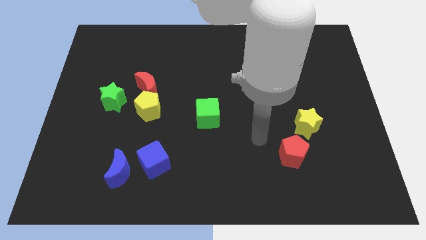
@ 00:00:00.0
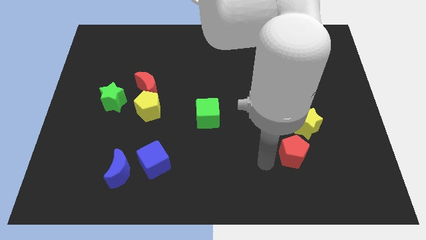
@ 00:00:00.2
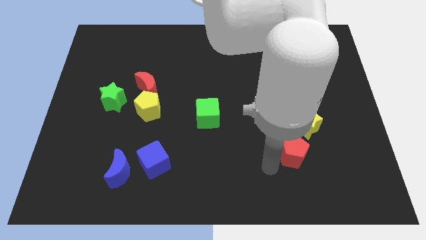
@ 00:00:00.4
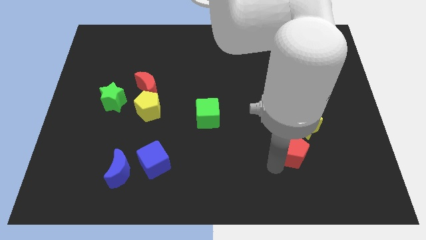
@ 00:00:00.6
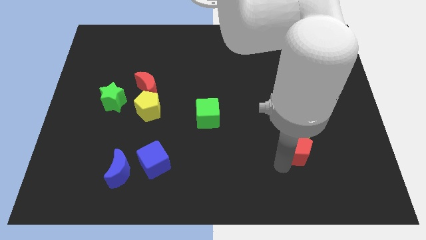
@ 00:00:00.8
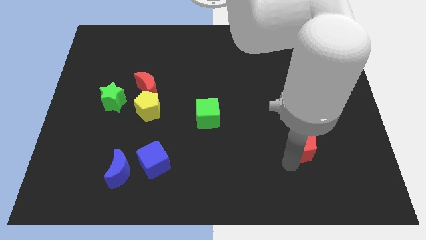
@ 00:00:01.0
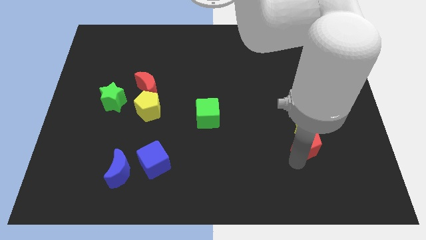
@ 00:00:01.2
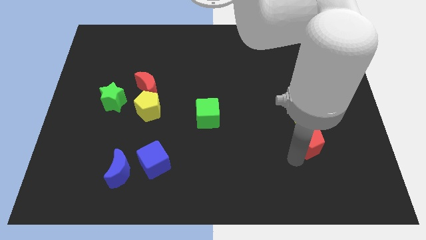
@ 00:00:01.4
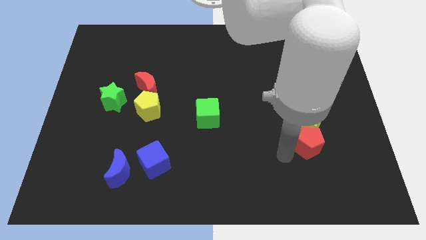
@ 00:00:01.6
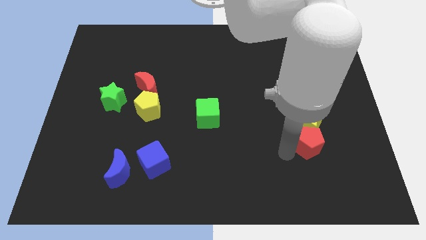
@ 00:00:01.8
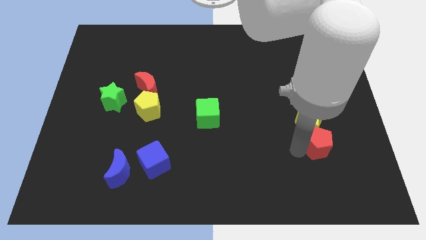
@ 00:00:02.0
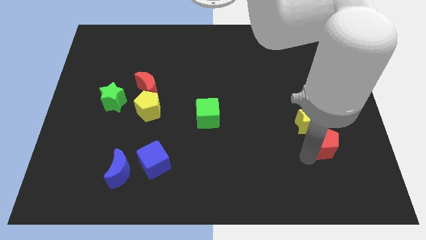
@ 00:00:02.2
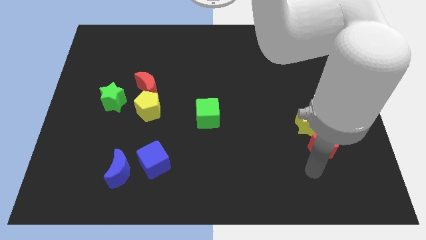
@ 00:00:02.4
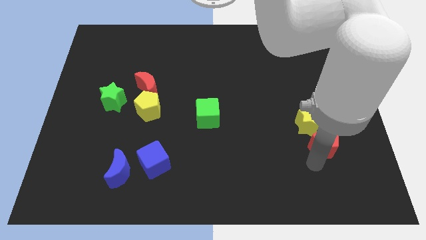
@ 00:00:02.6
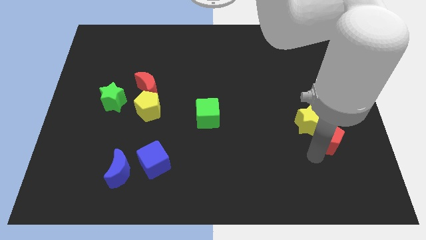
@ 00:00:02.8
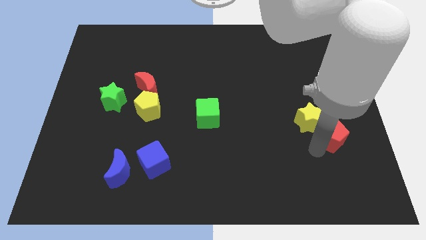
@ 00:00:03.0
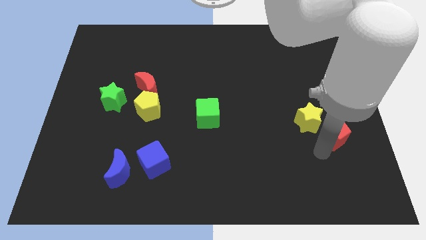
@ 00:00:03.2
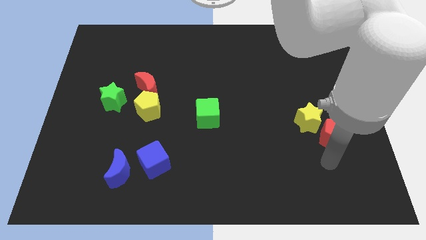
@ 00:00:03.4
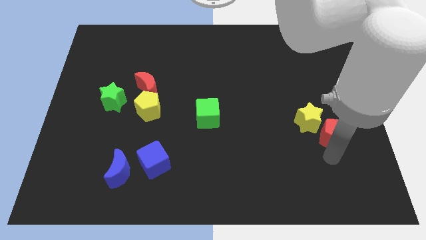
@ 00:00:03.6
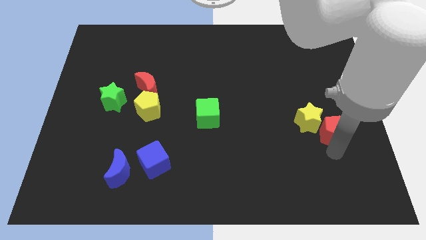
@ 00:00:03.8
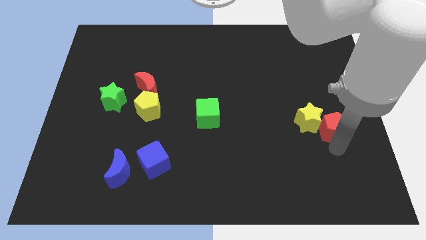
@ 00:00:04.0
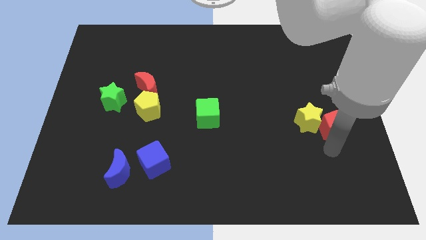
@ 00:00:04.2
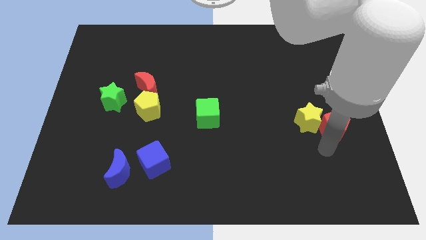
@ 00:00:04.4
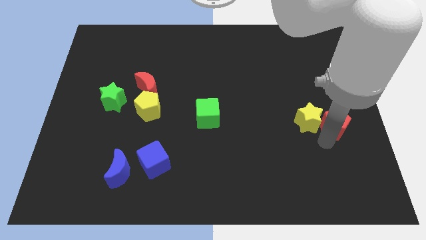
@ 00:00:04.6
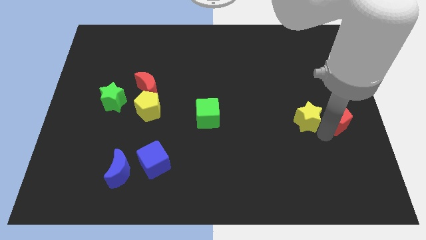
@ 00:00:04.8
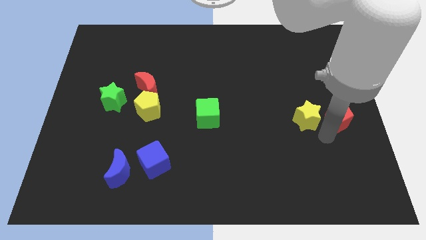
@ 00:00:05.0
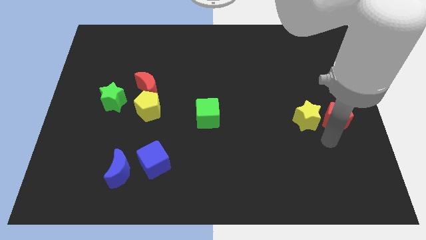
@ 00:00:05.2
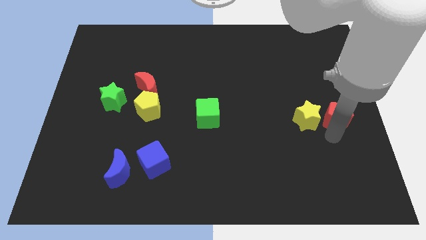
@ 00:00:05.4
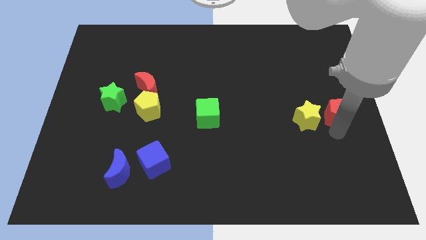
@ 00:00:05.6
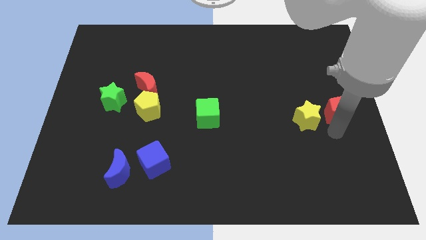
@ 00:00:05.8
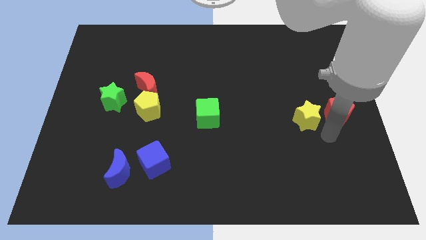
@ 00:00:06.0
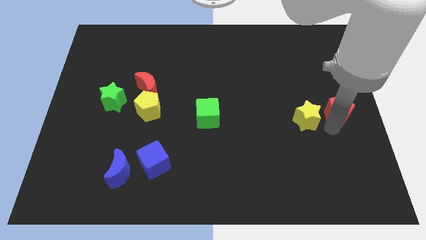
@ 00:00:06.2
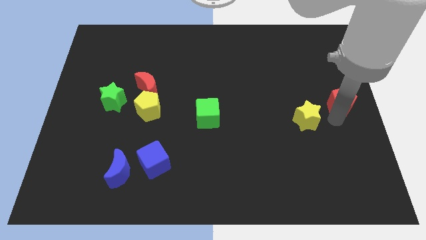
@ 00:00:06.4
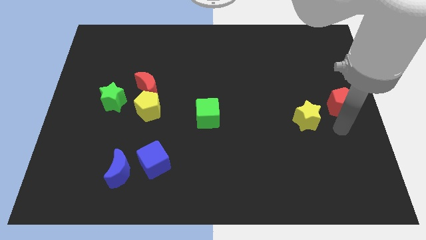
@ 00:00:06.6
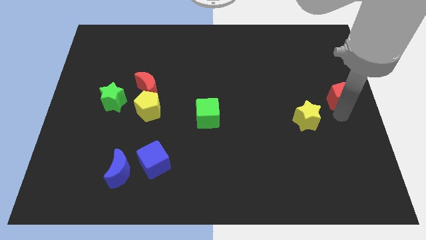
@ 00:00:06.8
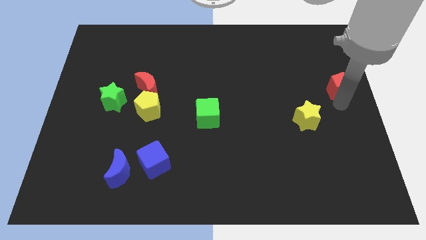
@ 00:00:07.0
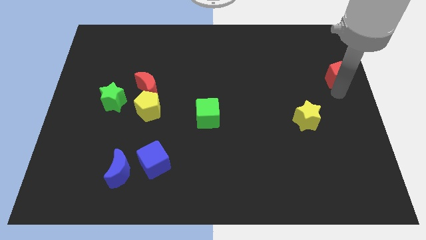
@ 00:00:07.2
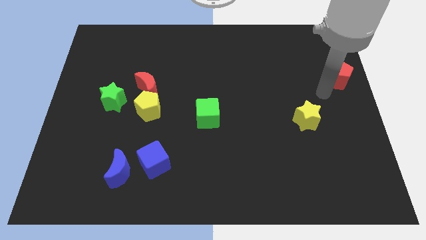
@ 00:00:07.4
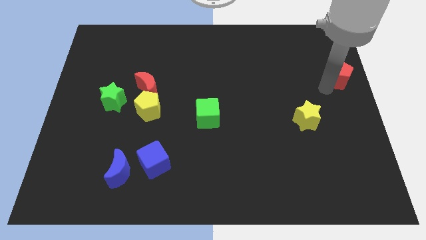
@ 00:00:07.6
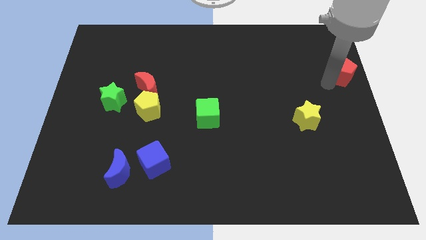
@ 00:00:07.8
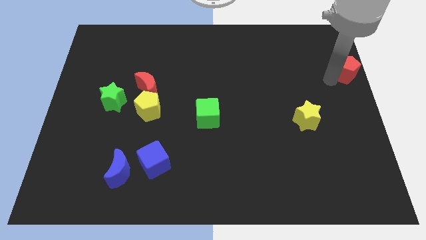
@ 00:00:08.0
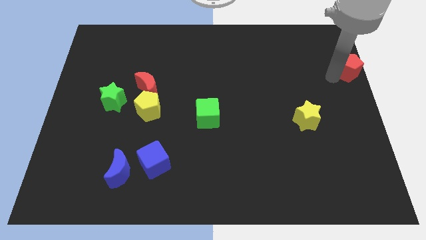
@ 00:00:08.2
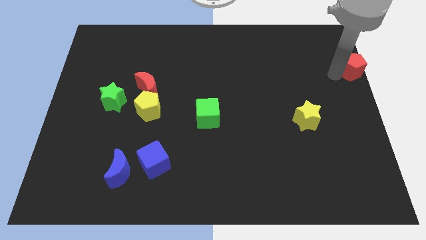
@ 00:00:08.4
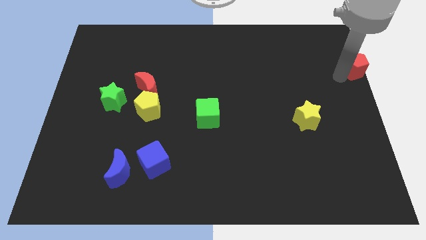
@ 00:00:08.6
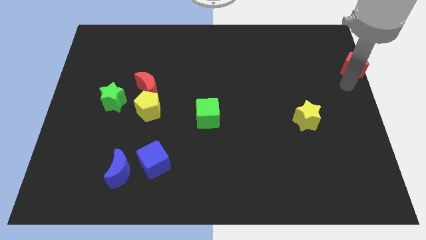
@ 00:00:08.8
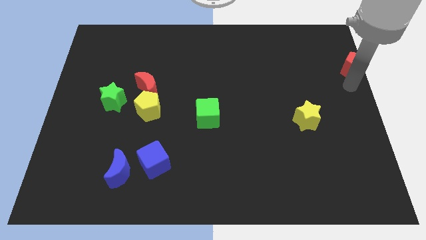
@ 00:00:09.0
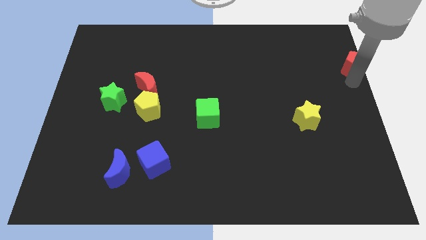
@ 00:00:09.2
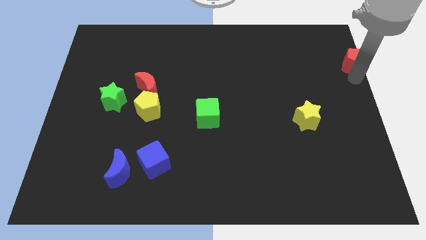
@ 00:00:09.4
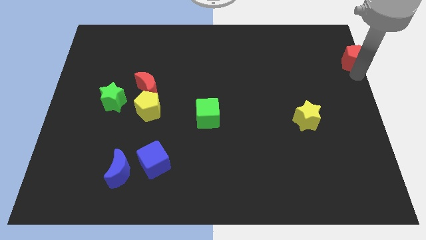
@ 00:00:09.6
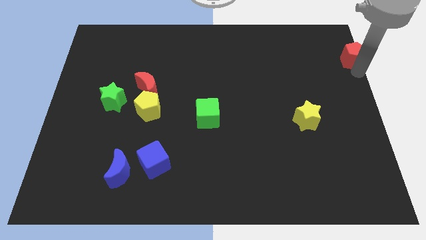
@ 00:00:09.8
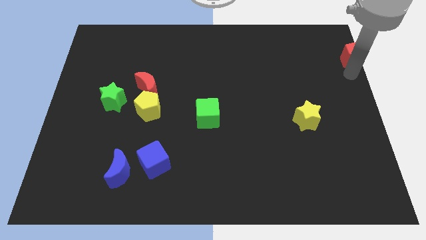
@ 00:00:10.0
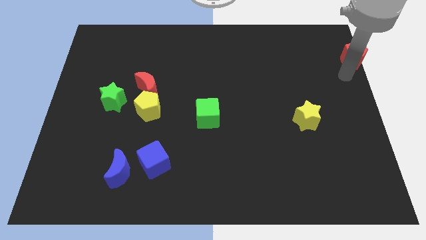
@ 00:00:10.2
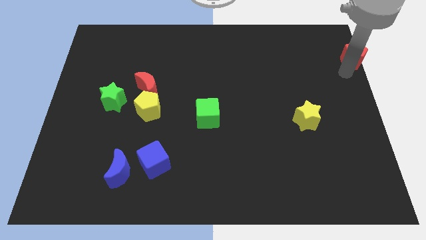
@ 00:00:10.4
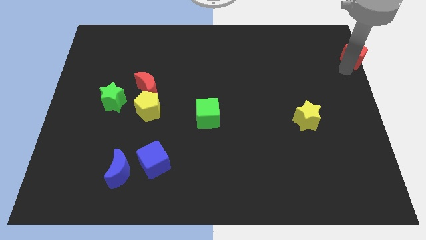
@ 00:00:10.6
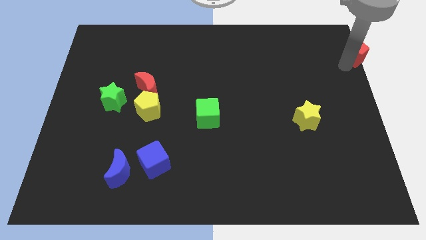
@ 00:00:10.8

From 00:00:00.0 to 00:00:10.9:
push the red pentagon to the top right of the board

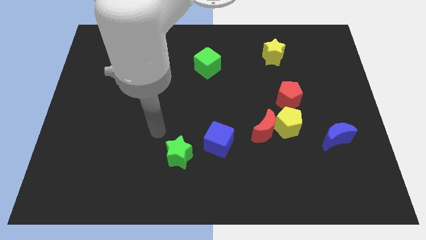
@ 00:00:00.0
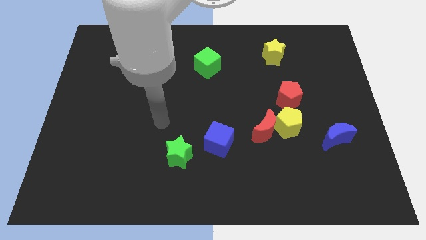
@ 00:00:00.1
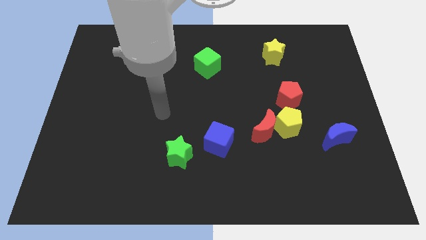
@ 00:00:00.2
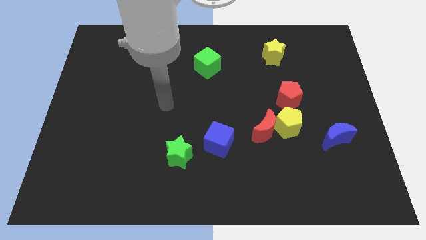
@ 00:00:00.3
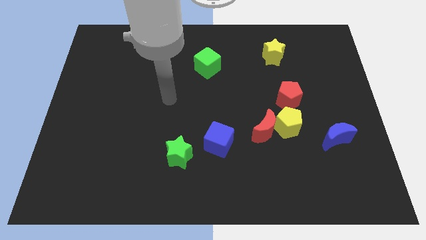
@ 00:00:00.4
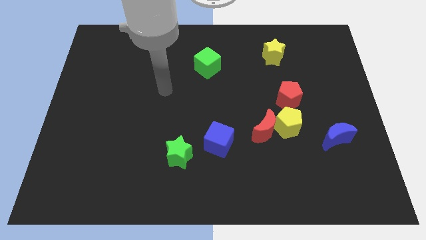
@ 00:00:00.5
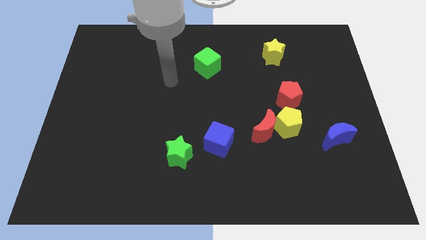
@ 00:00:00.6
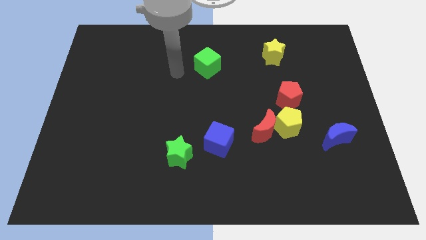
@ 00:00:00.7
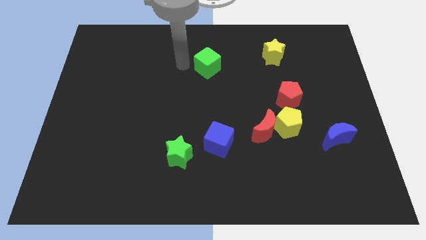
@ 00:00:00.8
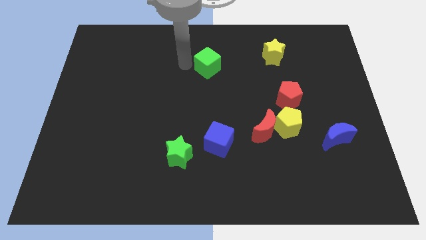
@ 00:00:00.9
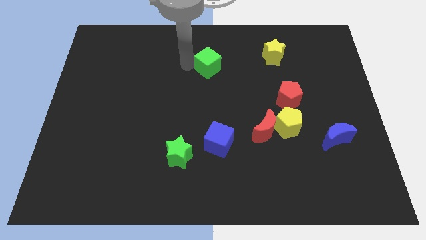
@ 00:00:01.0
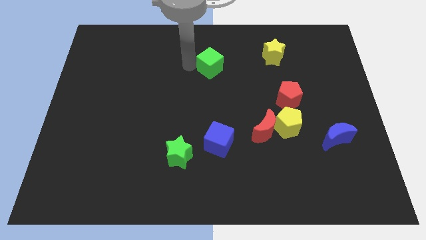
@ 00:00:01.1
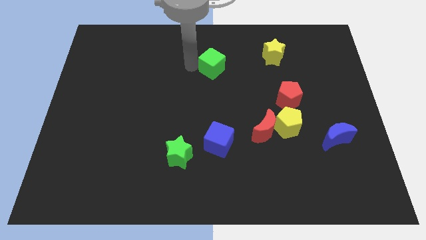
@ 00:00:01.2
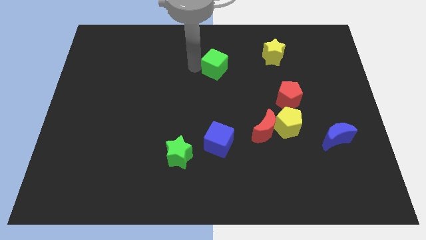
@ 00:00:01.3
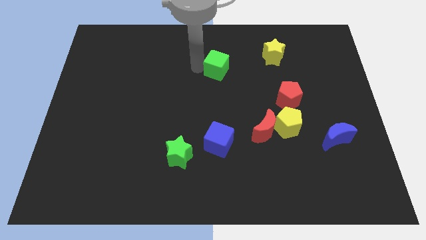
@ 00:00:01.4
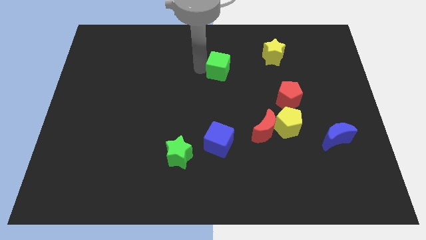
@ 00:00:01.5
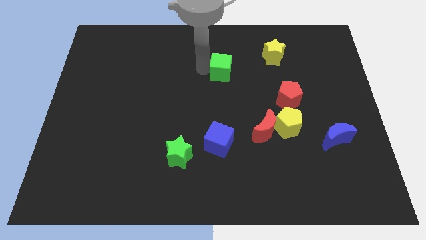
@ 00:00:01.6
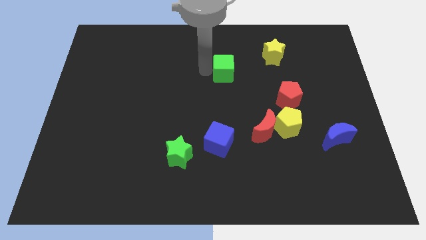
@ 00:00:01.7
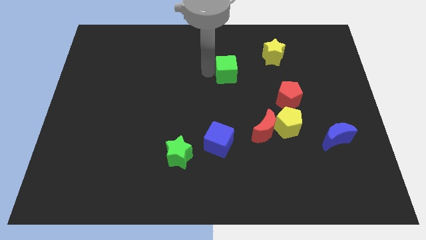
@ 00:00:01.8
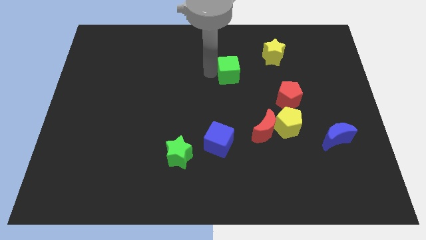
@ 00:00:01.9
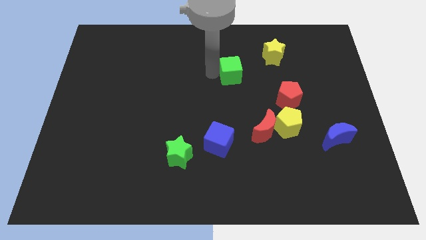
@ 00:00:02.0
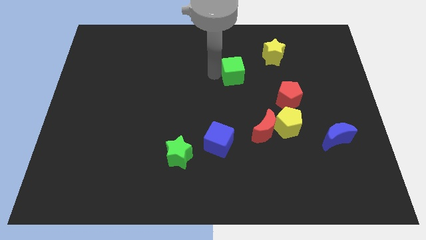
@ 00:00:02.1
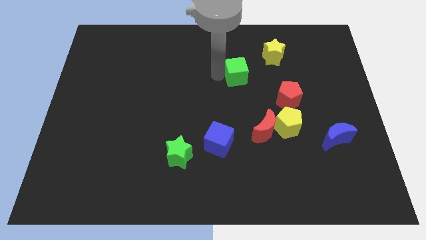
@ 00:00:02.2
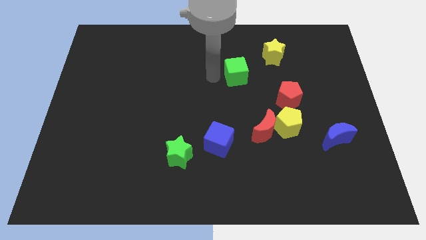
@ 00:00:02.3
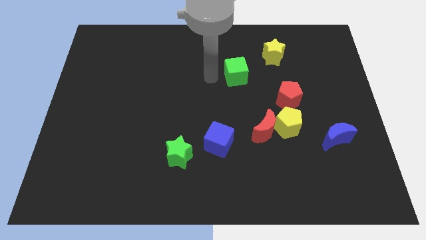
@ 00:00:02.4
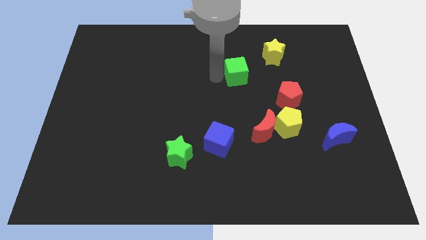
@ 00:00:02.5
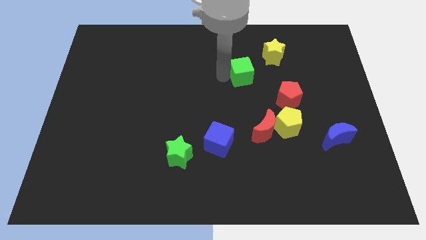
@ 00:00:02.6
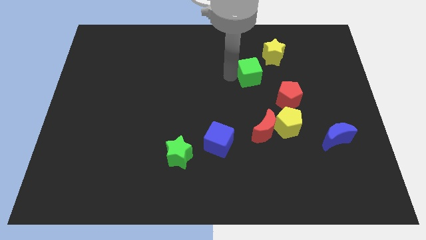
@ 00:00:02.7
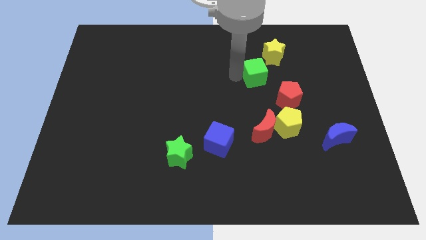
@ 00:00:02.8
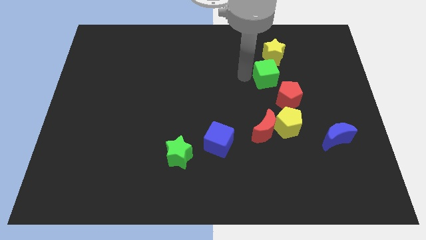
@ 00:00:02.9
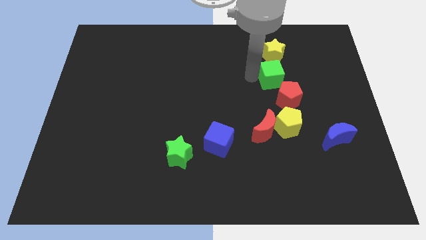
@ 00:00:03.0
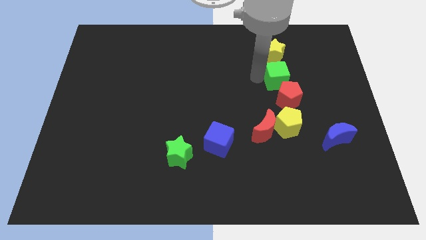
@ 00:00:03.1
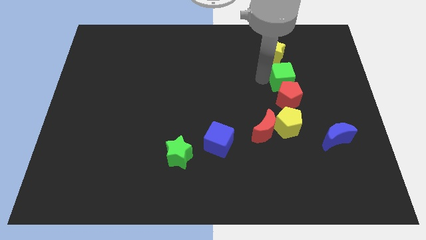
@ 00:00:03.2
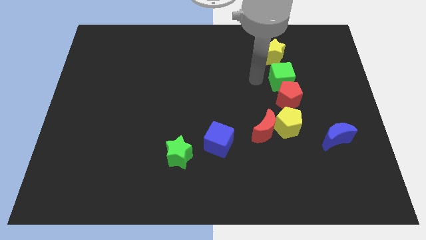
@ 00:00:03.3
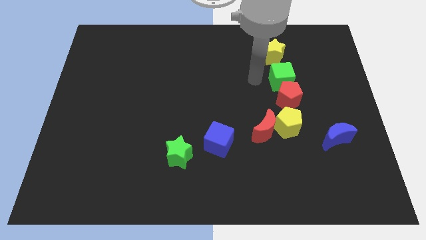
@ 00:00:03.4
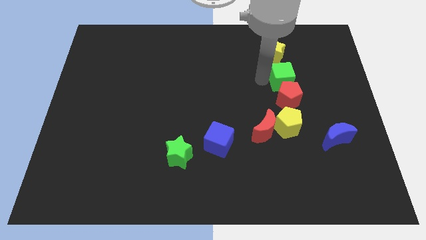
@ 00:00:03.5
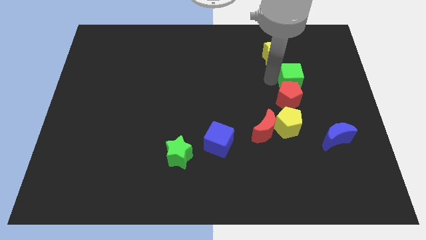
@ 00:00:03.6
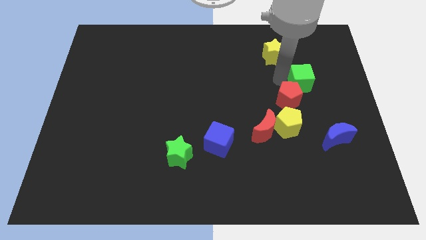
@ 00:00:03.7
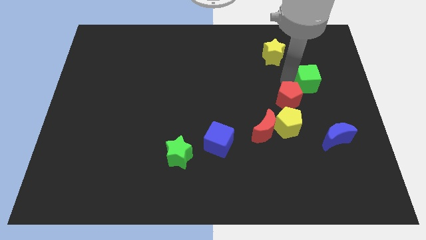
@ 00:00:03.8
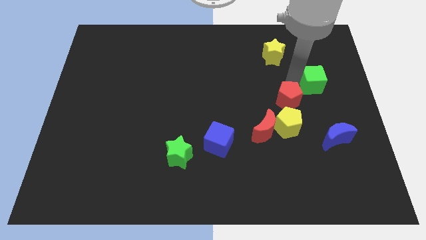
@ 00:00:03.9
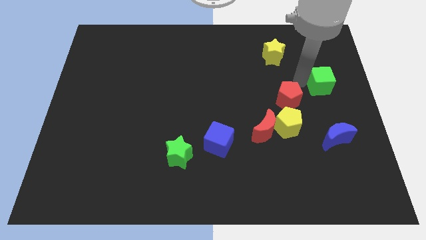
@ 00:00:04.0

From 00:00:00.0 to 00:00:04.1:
push the green cube to the right side
